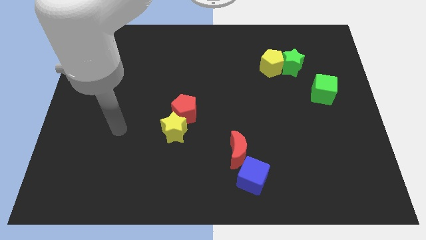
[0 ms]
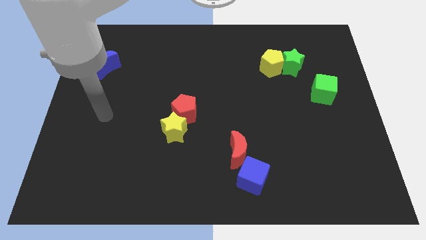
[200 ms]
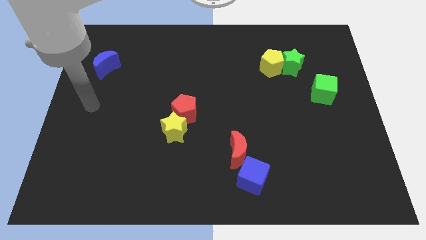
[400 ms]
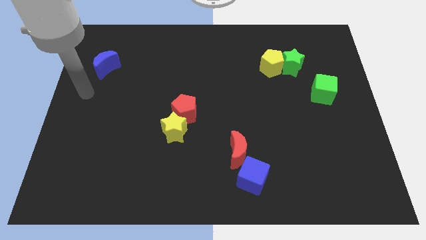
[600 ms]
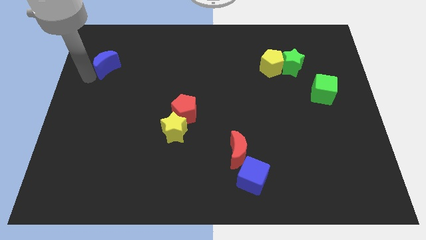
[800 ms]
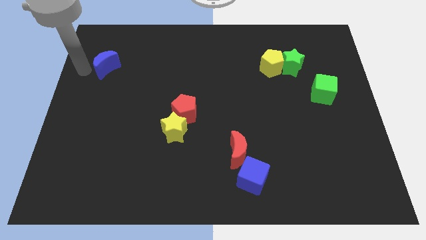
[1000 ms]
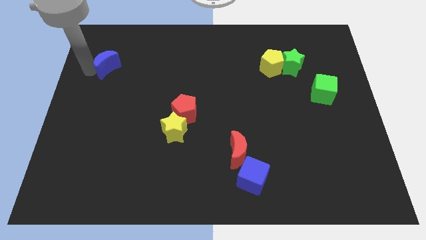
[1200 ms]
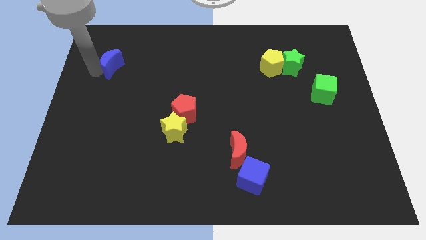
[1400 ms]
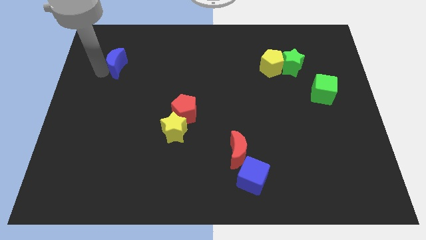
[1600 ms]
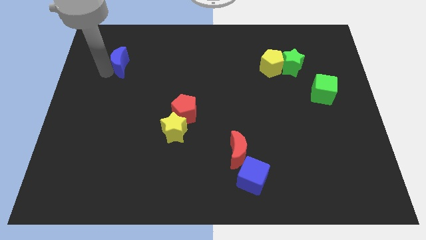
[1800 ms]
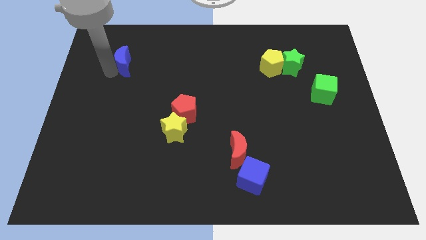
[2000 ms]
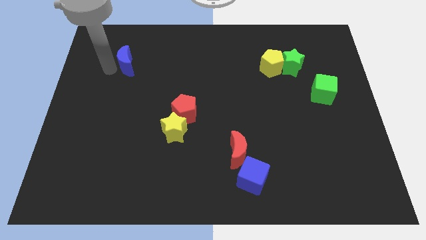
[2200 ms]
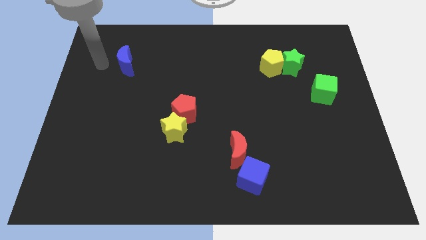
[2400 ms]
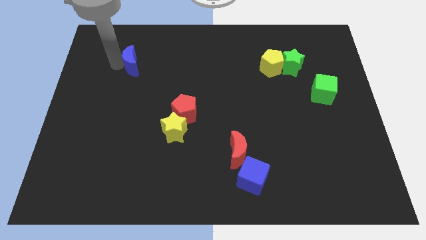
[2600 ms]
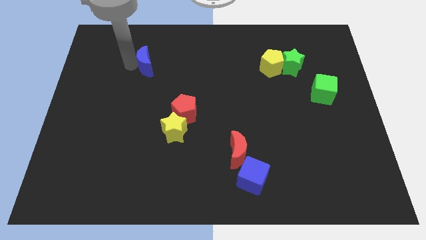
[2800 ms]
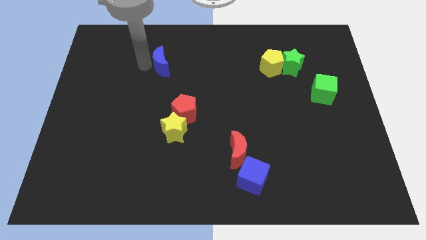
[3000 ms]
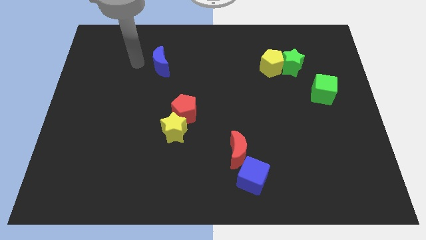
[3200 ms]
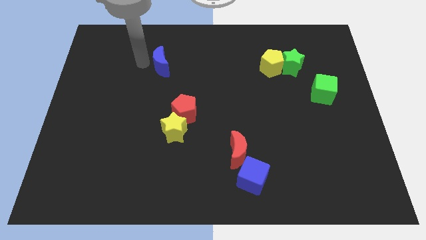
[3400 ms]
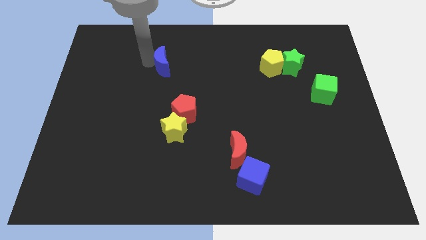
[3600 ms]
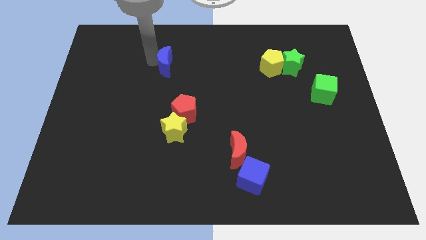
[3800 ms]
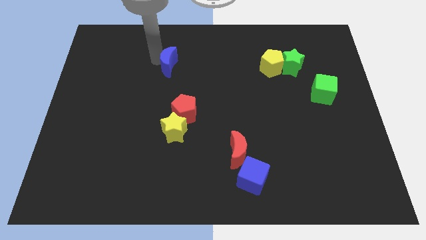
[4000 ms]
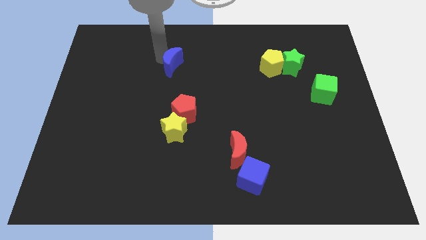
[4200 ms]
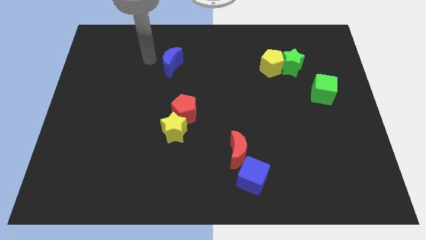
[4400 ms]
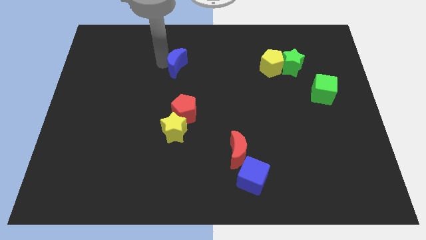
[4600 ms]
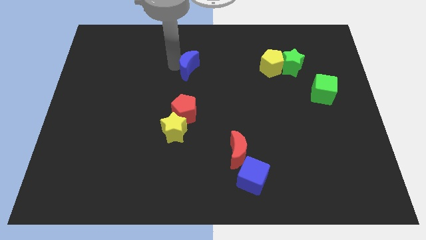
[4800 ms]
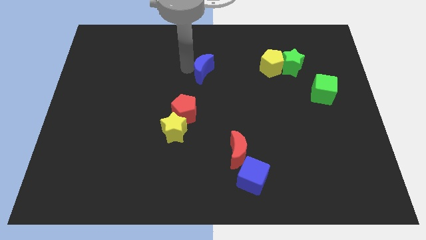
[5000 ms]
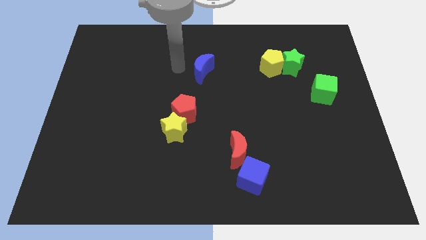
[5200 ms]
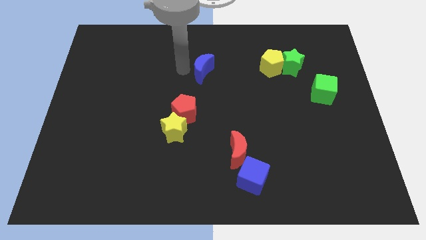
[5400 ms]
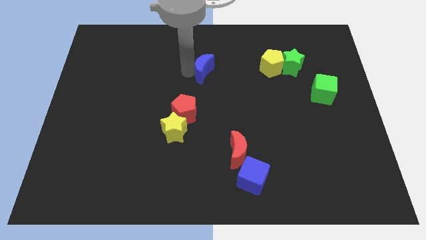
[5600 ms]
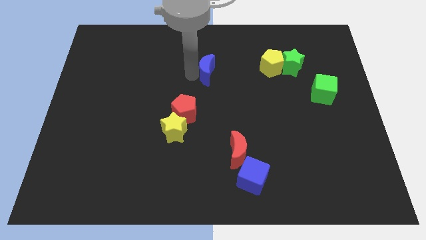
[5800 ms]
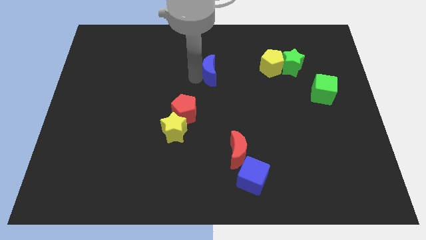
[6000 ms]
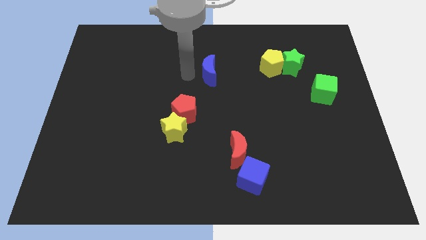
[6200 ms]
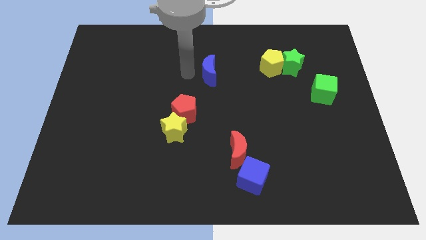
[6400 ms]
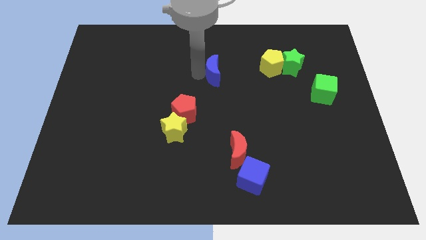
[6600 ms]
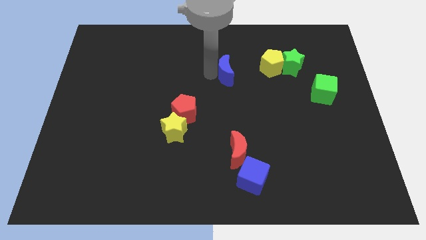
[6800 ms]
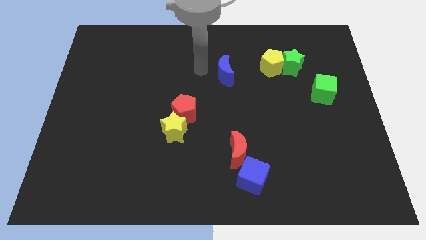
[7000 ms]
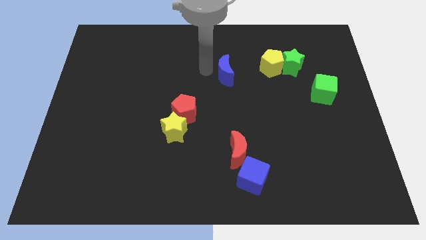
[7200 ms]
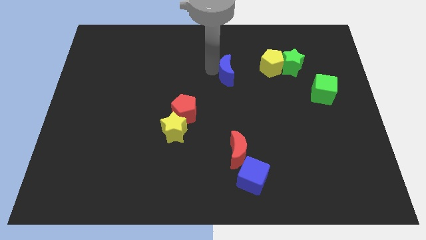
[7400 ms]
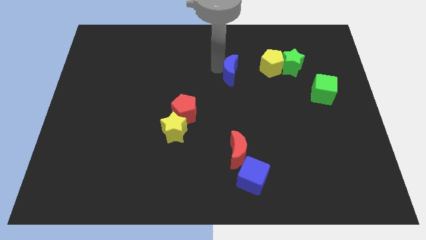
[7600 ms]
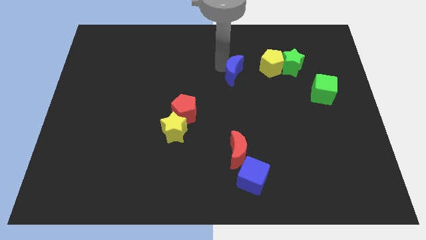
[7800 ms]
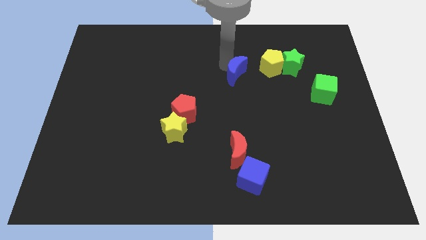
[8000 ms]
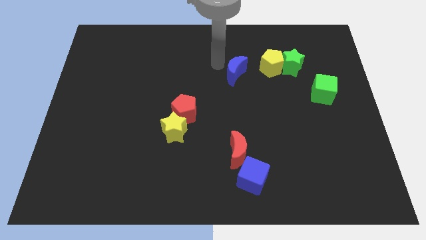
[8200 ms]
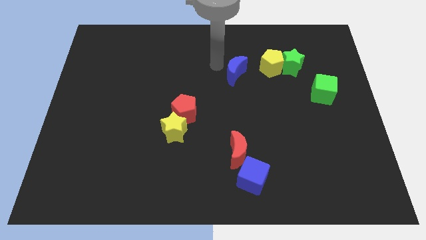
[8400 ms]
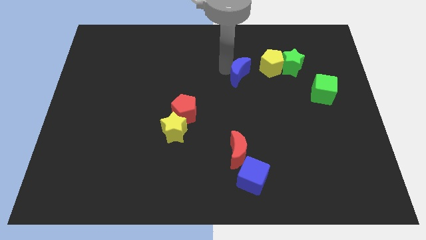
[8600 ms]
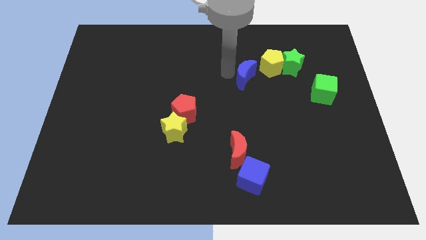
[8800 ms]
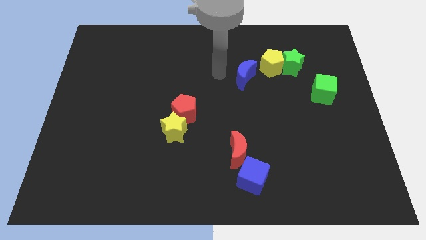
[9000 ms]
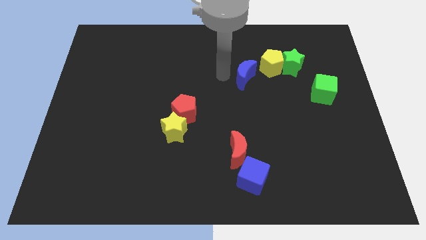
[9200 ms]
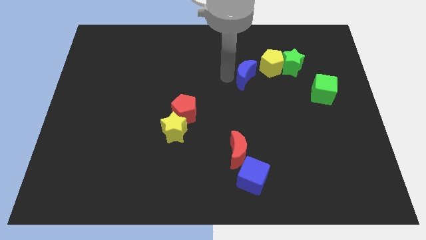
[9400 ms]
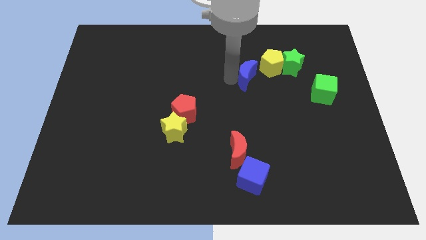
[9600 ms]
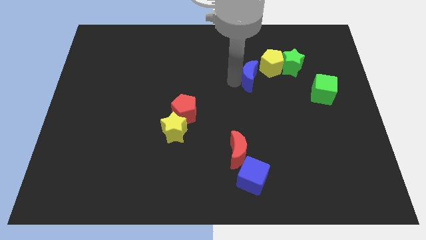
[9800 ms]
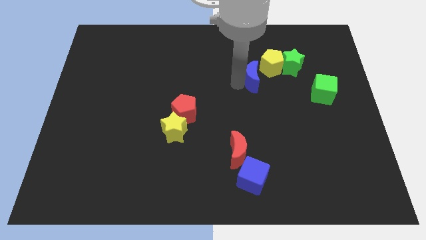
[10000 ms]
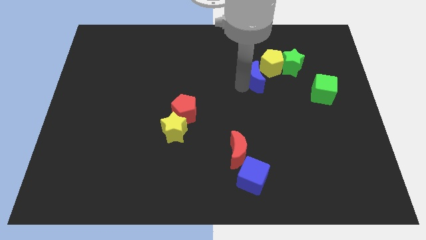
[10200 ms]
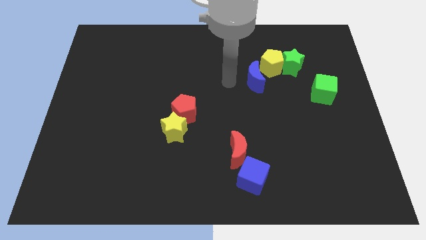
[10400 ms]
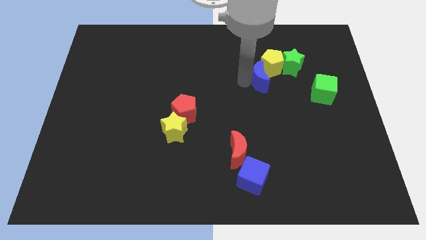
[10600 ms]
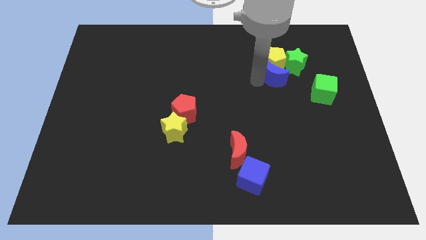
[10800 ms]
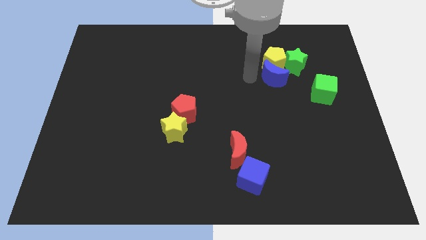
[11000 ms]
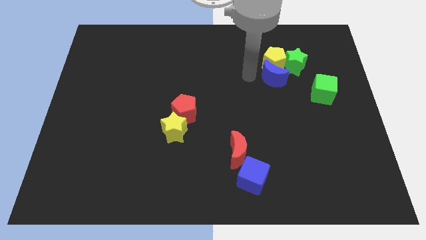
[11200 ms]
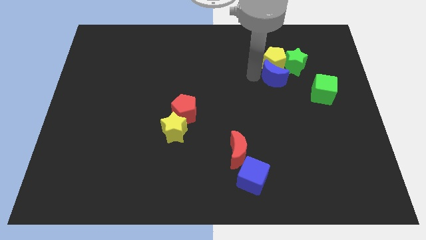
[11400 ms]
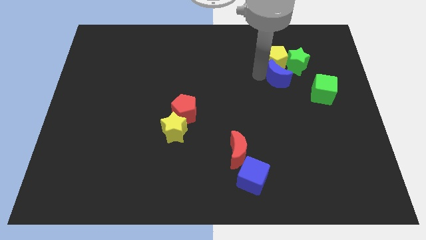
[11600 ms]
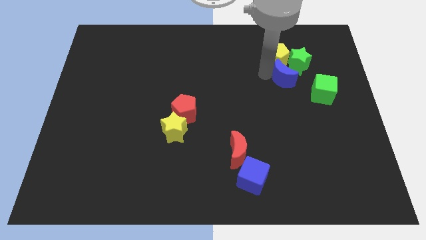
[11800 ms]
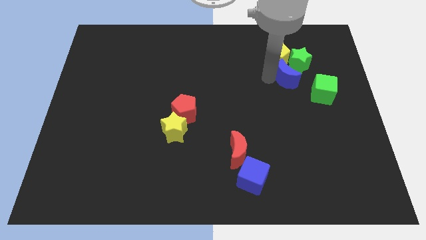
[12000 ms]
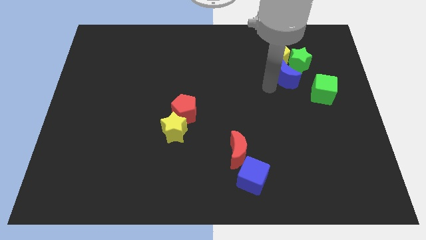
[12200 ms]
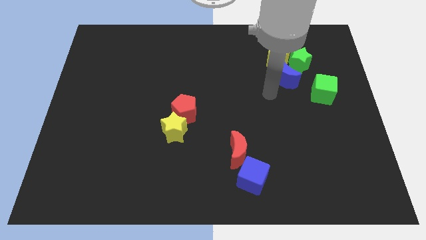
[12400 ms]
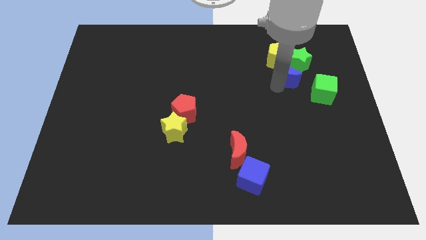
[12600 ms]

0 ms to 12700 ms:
put the blue moon to the green star

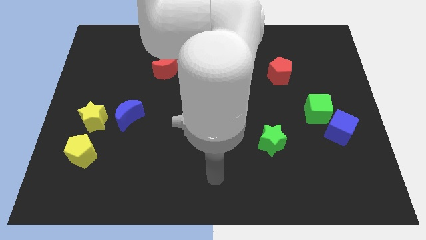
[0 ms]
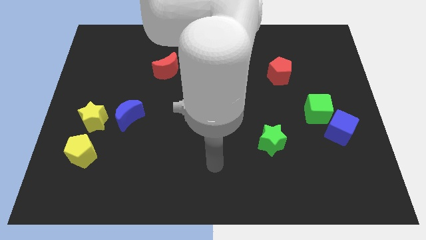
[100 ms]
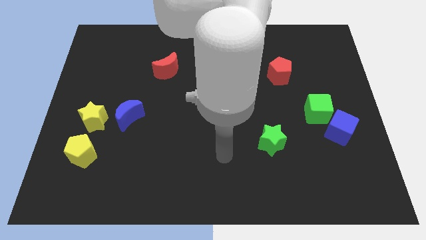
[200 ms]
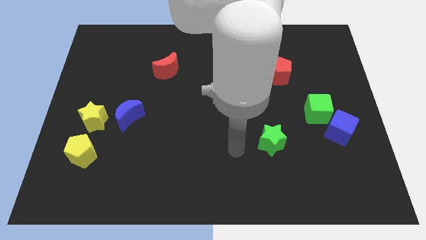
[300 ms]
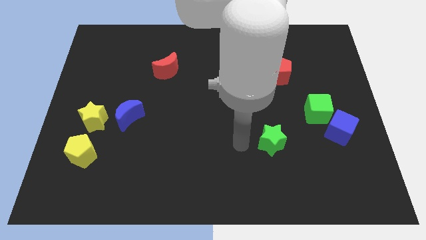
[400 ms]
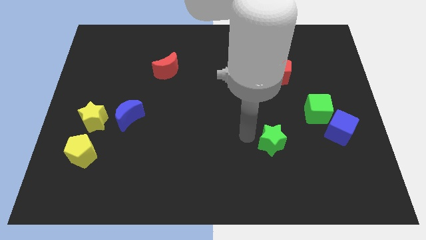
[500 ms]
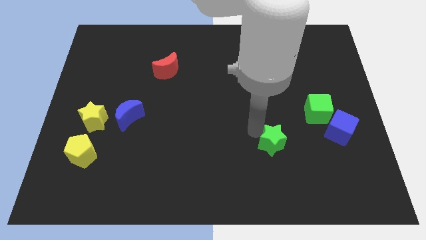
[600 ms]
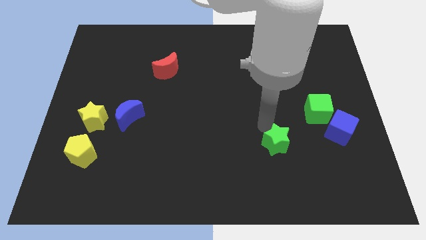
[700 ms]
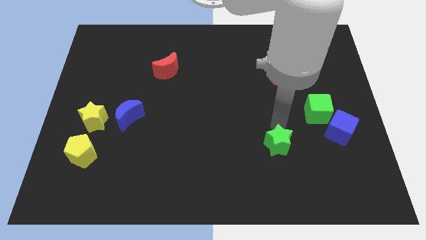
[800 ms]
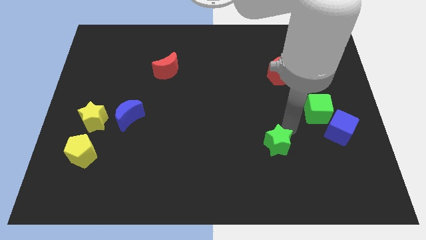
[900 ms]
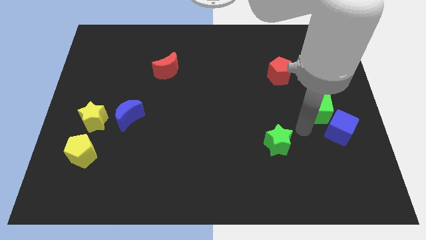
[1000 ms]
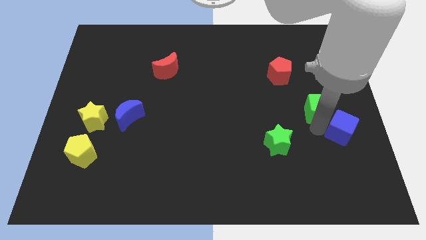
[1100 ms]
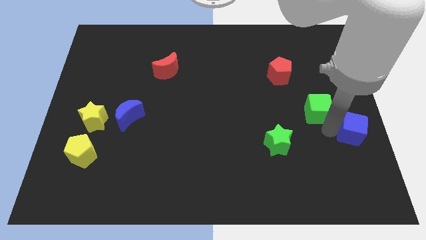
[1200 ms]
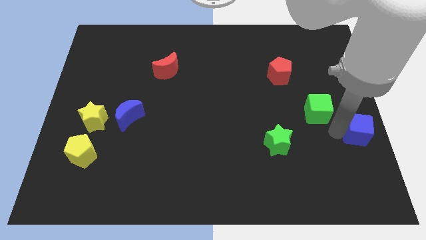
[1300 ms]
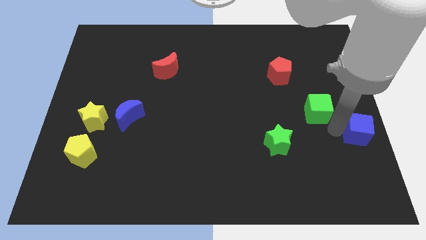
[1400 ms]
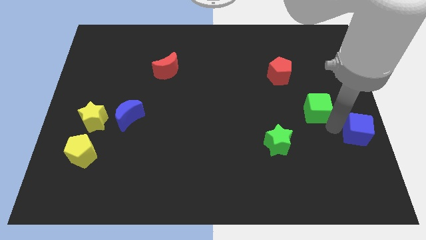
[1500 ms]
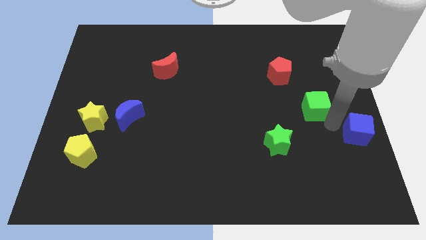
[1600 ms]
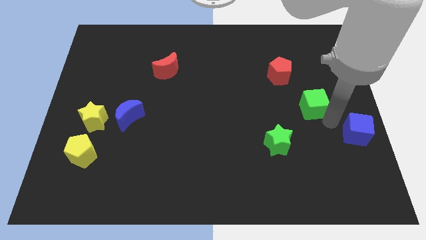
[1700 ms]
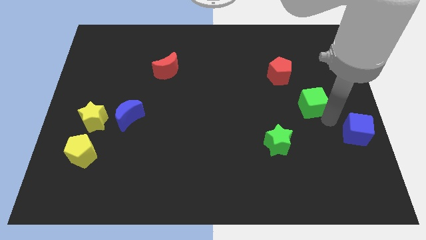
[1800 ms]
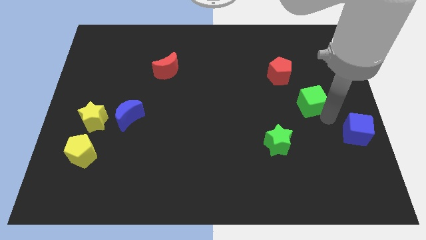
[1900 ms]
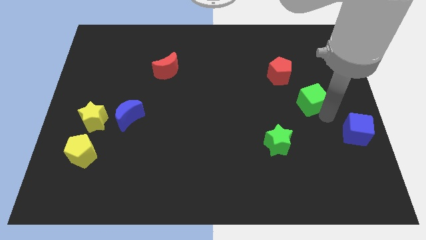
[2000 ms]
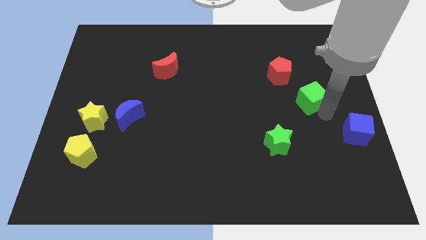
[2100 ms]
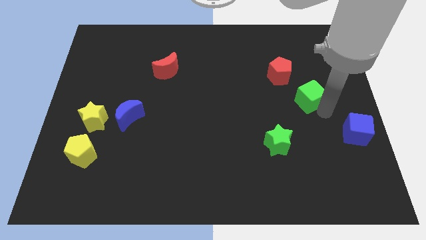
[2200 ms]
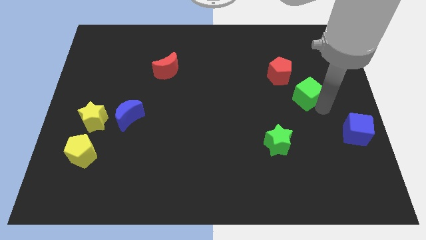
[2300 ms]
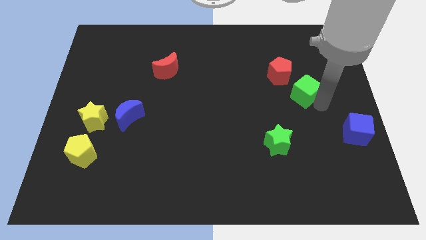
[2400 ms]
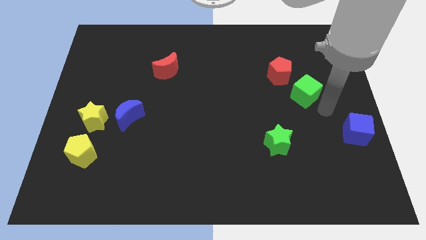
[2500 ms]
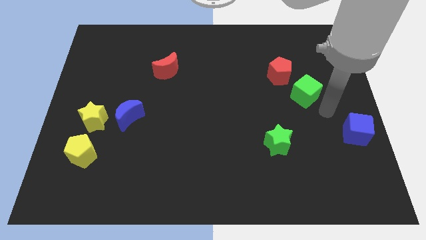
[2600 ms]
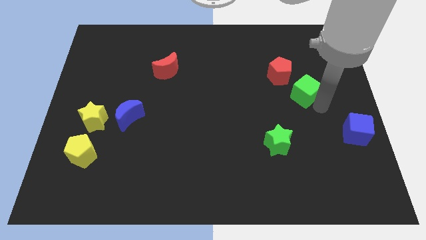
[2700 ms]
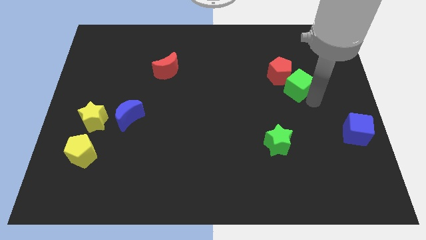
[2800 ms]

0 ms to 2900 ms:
move the green cube close to the red pentagon
